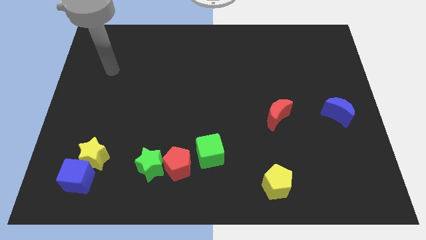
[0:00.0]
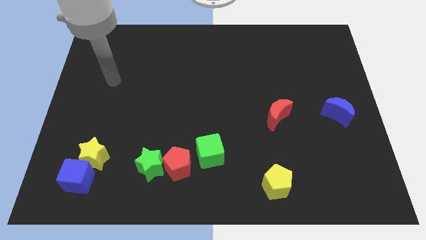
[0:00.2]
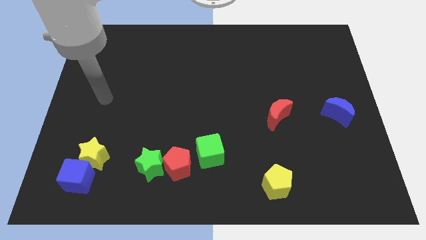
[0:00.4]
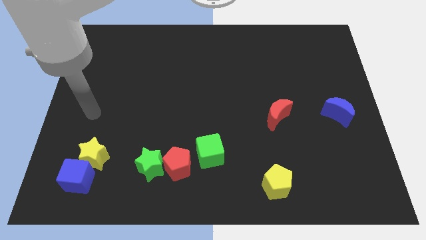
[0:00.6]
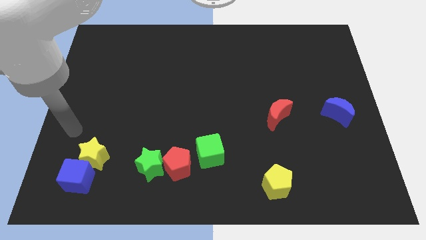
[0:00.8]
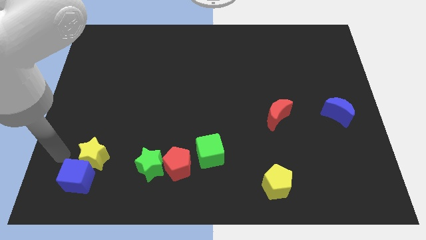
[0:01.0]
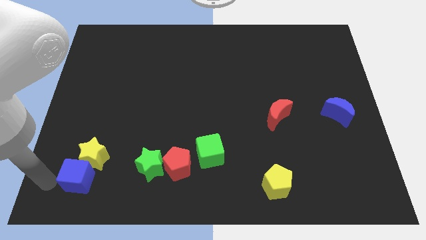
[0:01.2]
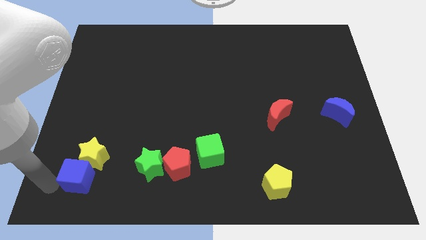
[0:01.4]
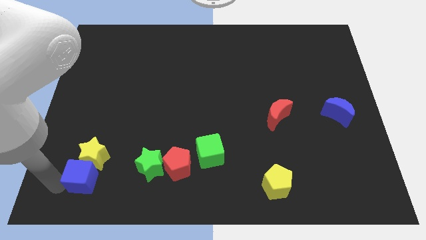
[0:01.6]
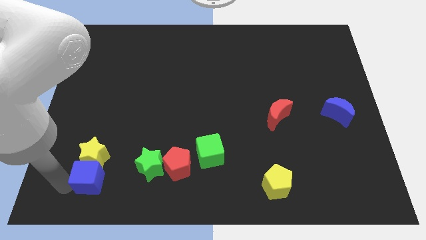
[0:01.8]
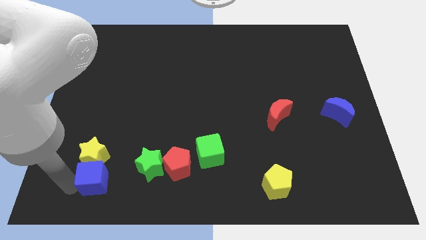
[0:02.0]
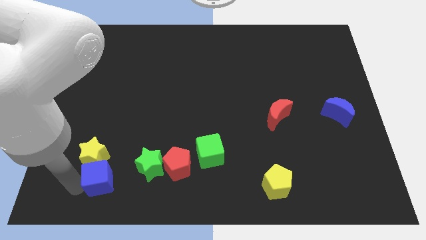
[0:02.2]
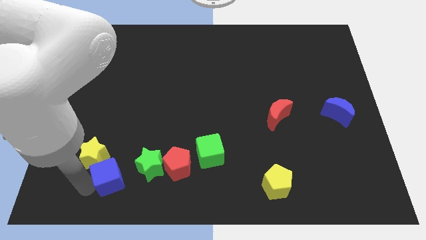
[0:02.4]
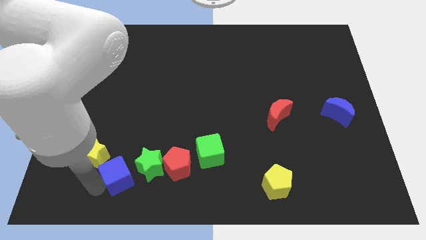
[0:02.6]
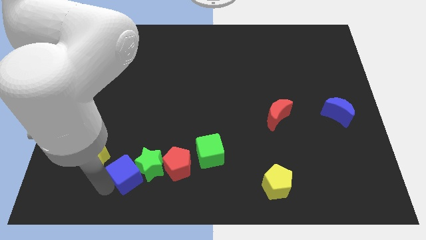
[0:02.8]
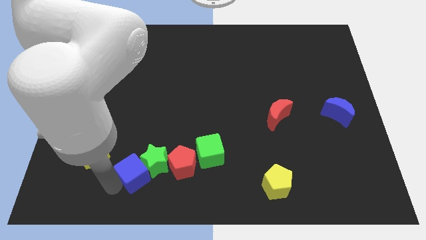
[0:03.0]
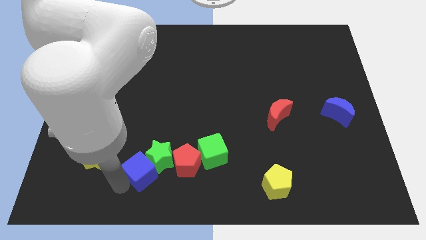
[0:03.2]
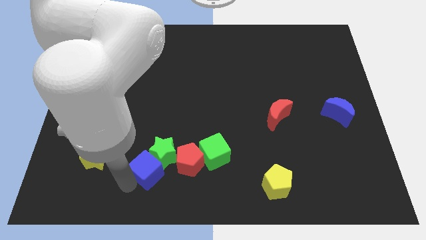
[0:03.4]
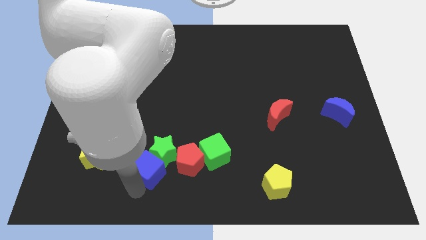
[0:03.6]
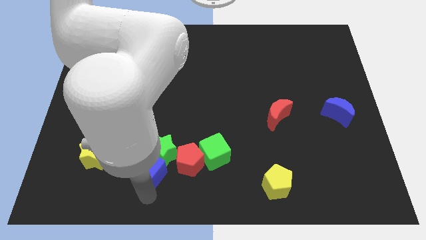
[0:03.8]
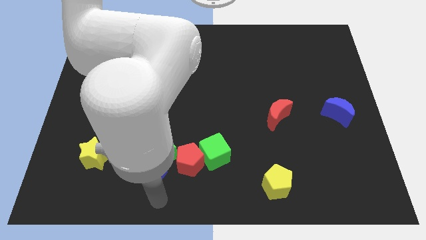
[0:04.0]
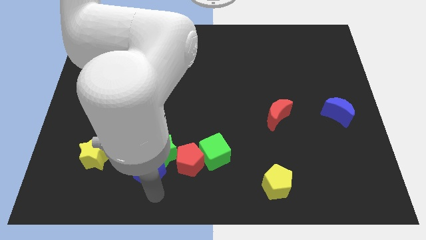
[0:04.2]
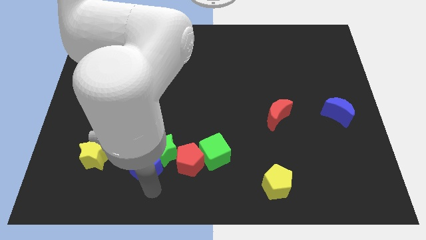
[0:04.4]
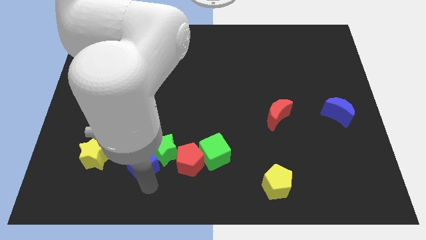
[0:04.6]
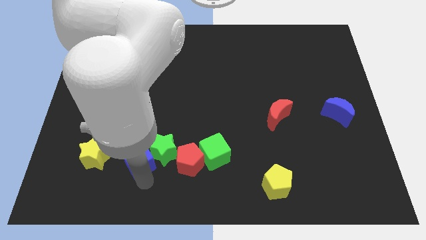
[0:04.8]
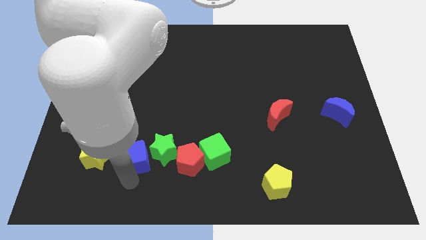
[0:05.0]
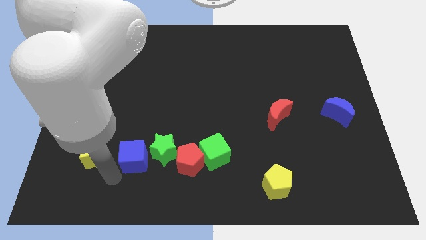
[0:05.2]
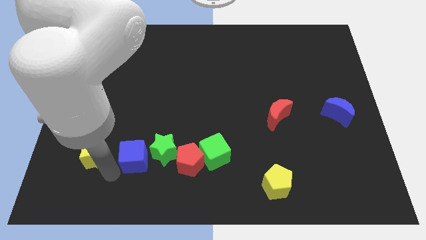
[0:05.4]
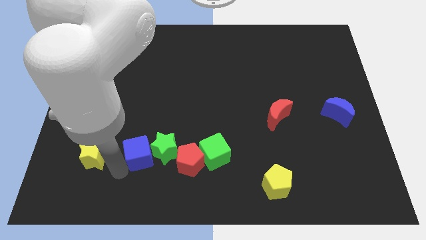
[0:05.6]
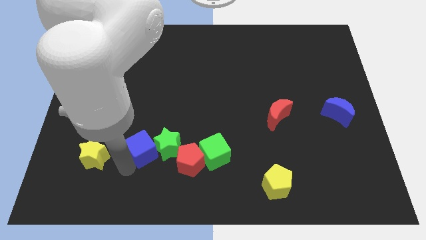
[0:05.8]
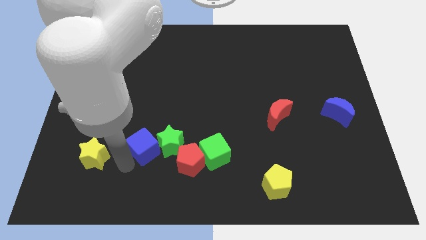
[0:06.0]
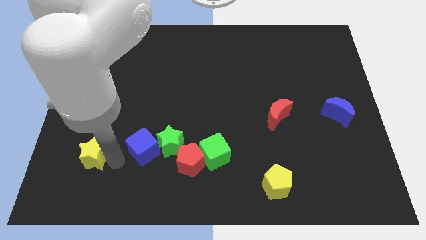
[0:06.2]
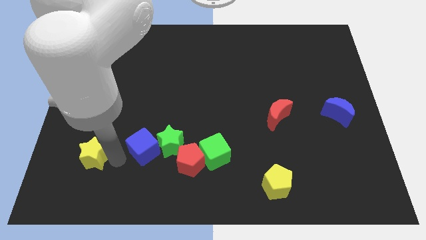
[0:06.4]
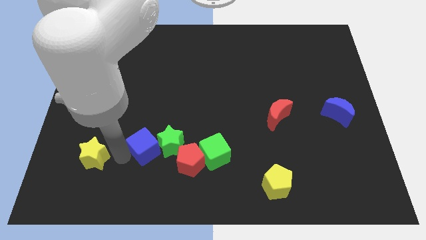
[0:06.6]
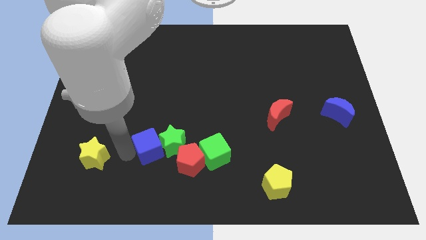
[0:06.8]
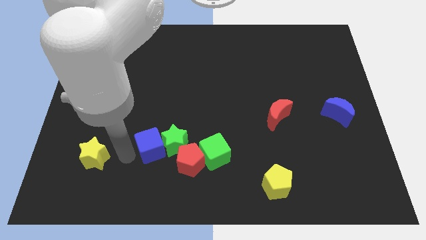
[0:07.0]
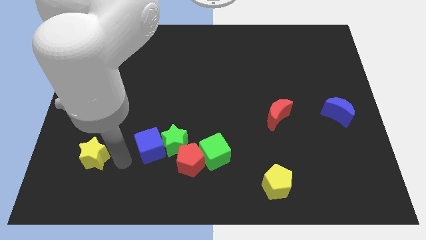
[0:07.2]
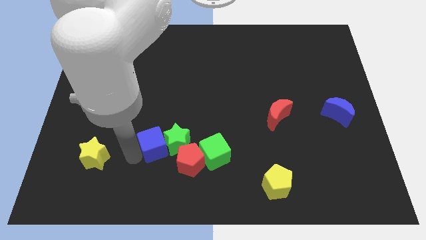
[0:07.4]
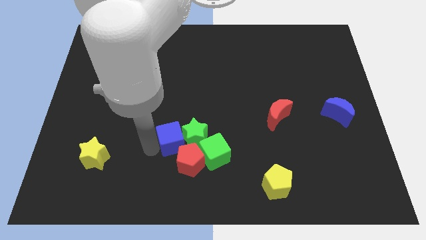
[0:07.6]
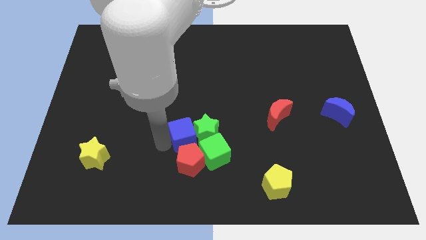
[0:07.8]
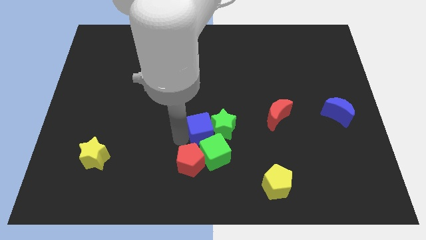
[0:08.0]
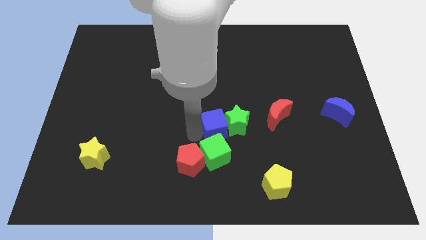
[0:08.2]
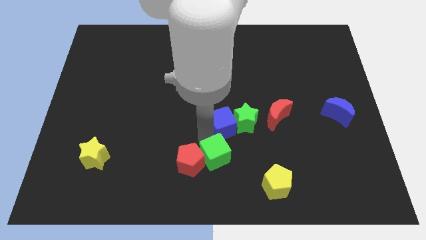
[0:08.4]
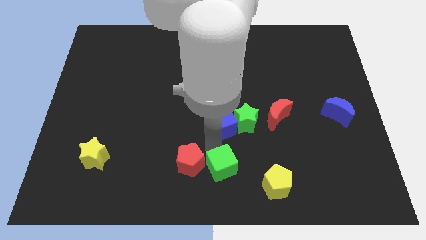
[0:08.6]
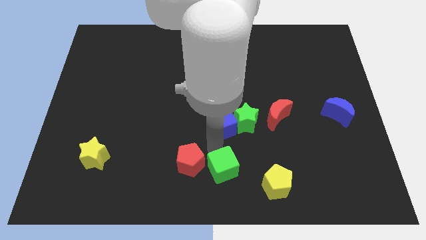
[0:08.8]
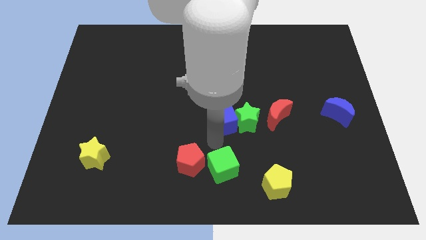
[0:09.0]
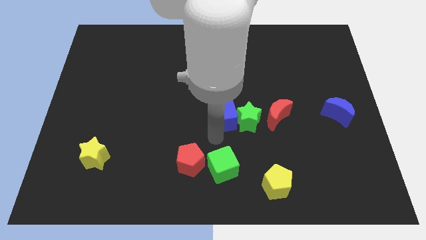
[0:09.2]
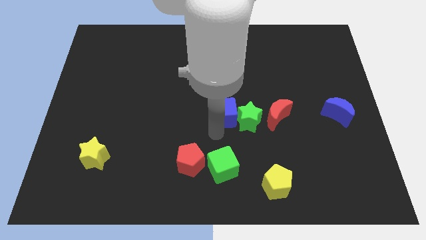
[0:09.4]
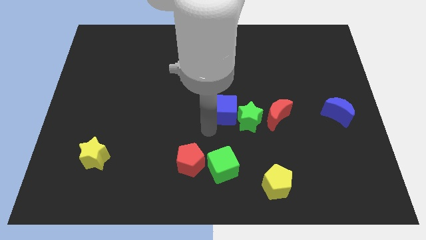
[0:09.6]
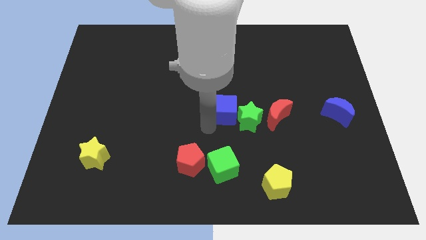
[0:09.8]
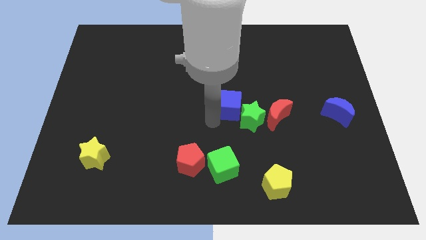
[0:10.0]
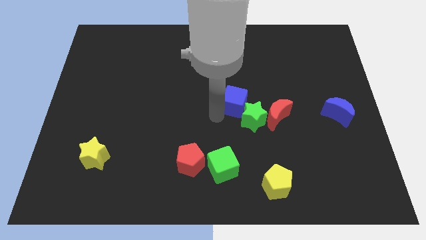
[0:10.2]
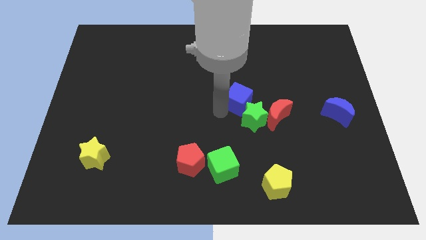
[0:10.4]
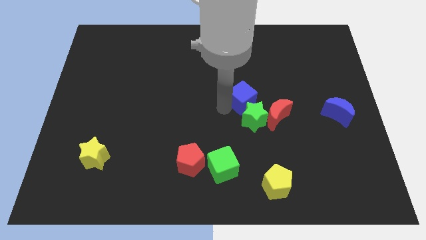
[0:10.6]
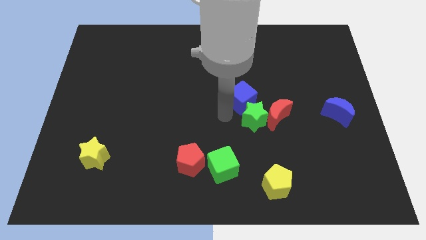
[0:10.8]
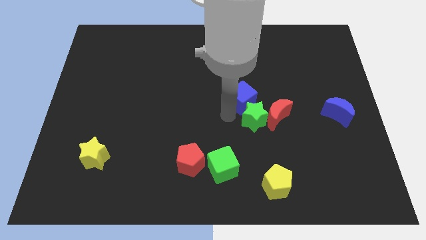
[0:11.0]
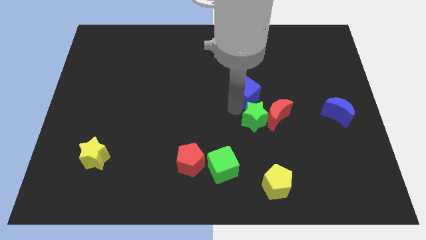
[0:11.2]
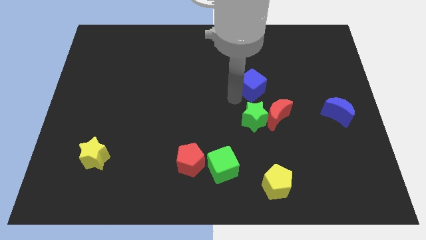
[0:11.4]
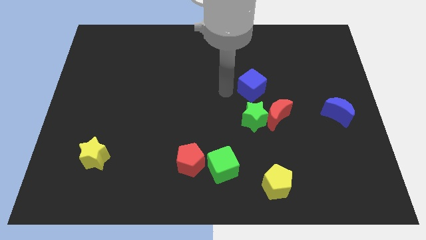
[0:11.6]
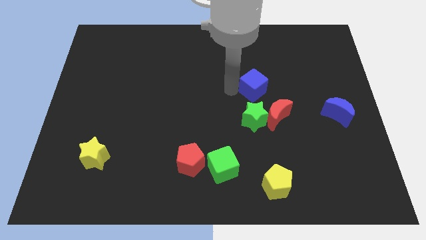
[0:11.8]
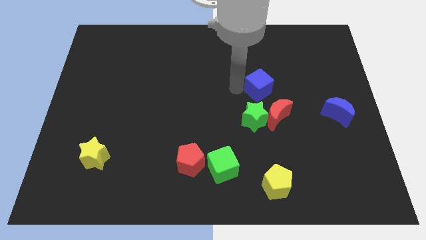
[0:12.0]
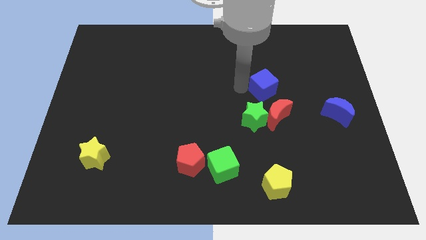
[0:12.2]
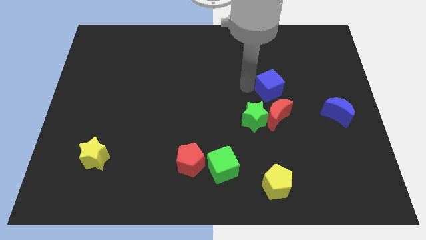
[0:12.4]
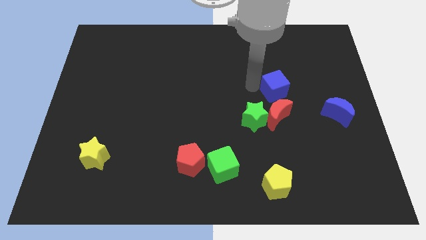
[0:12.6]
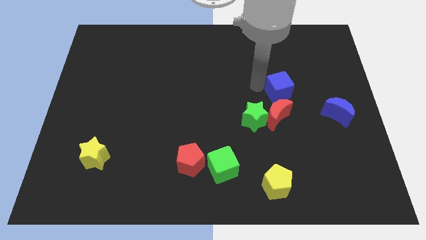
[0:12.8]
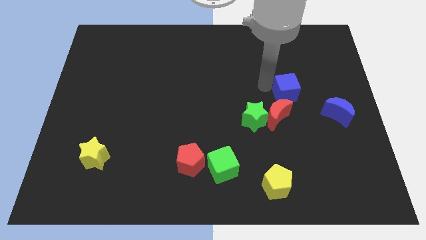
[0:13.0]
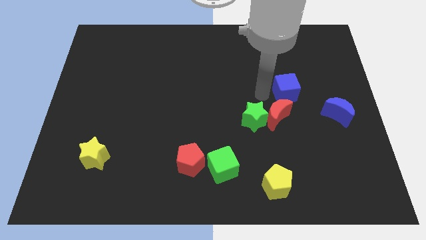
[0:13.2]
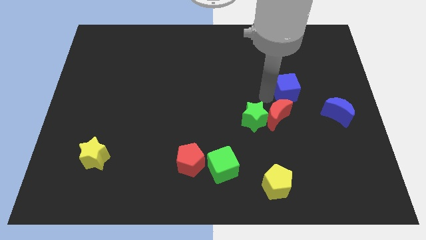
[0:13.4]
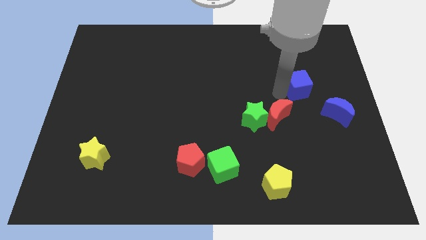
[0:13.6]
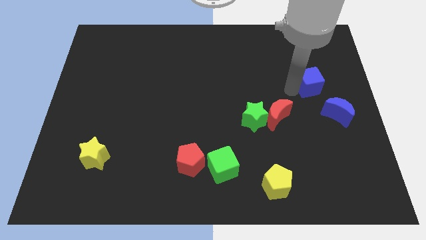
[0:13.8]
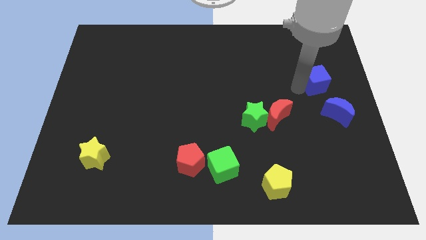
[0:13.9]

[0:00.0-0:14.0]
move the blue cube to the top of the blue moon
